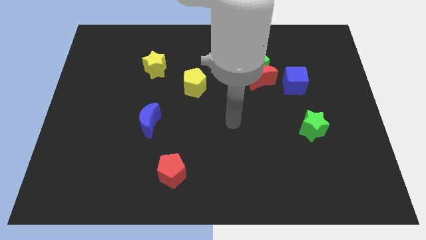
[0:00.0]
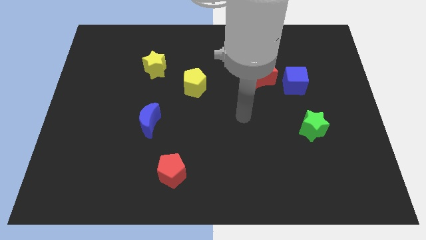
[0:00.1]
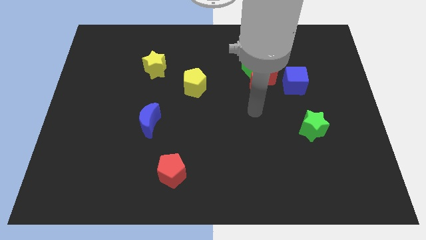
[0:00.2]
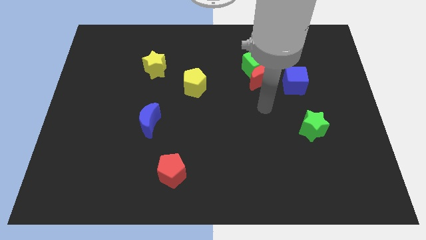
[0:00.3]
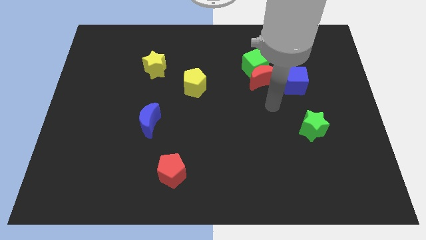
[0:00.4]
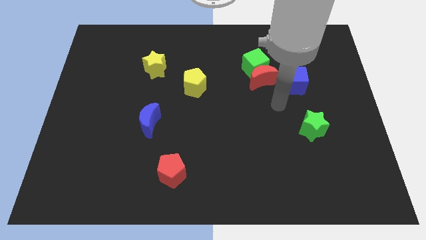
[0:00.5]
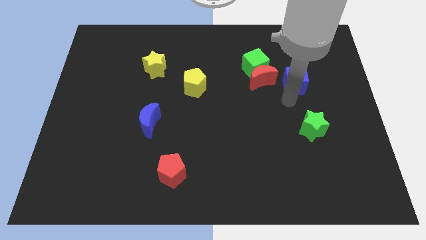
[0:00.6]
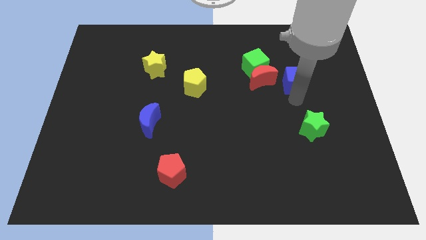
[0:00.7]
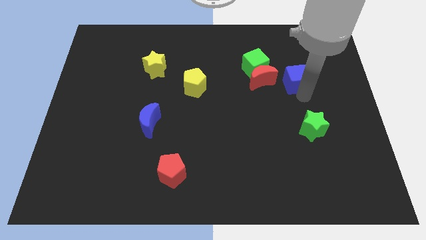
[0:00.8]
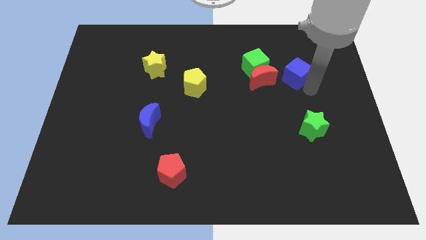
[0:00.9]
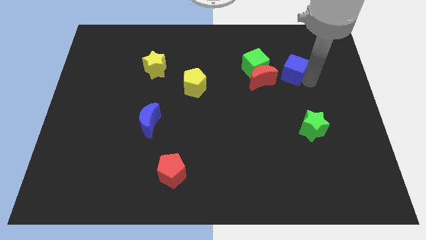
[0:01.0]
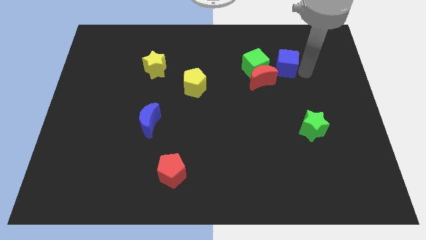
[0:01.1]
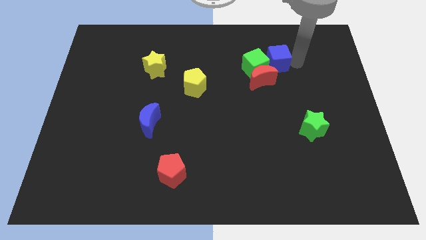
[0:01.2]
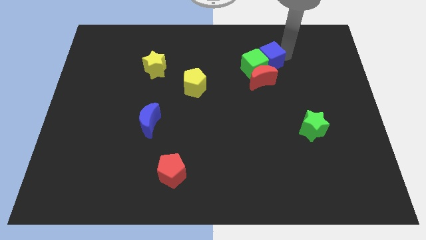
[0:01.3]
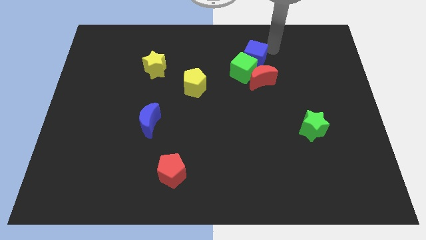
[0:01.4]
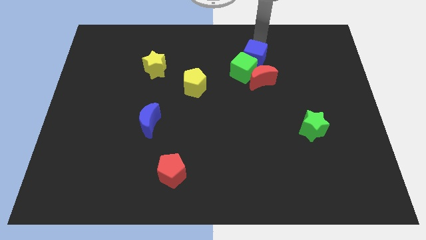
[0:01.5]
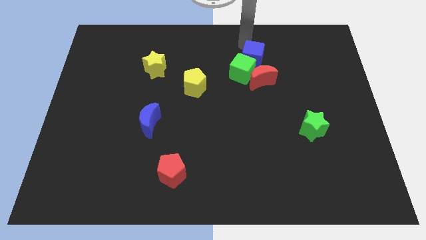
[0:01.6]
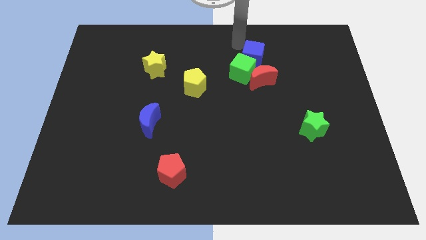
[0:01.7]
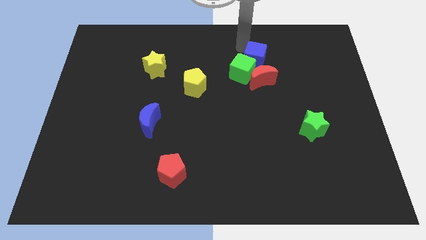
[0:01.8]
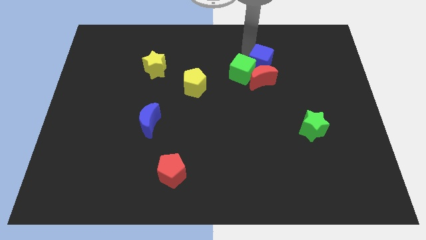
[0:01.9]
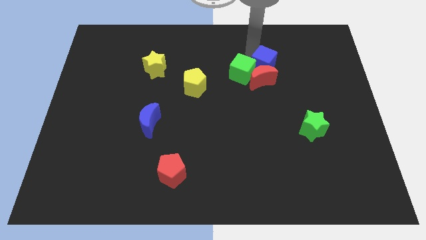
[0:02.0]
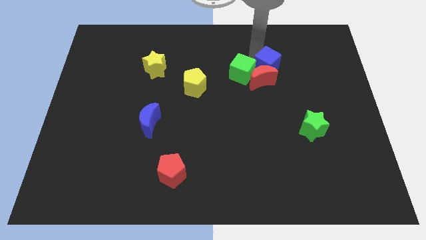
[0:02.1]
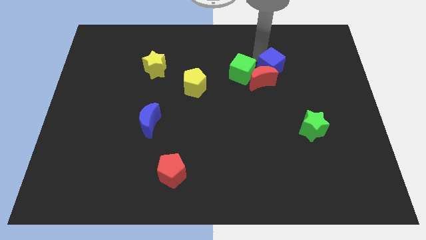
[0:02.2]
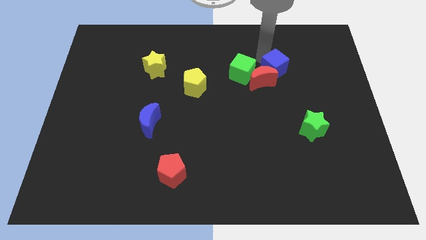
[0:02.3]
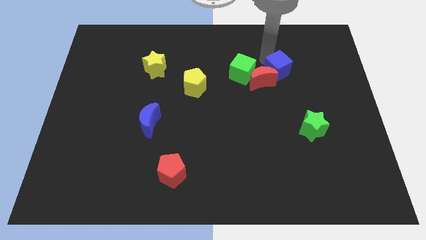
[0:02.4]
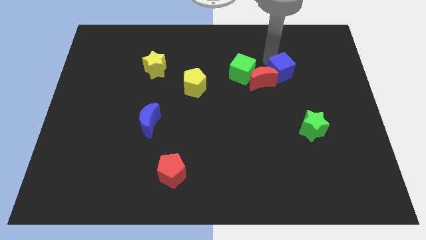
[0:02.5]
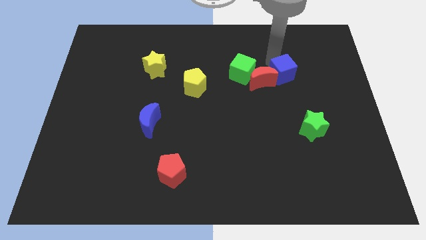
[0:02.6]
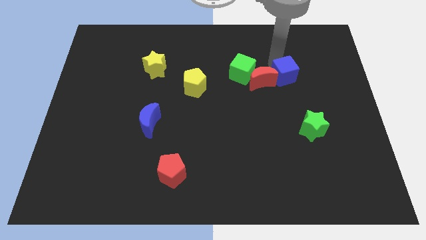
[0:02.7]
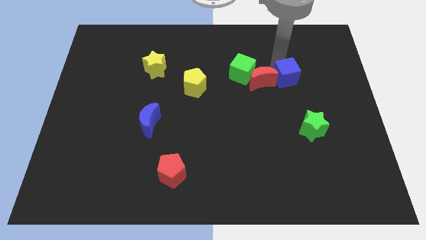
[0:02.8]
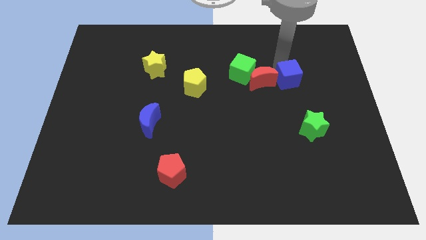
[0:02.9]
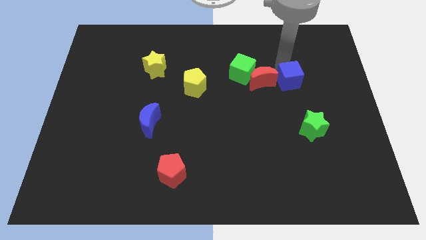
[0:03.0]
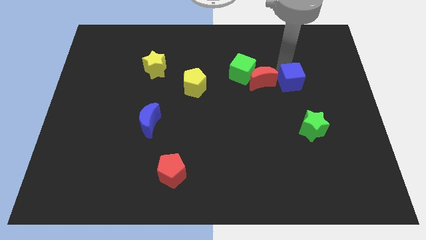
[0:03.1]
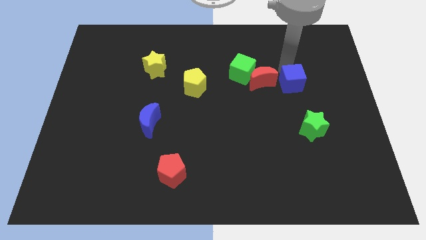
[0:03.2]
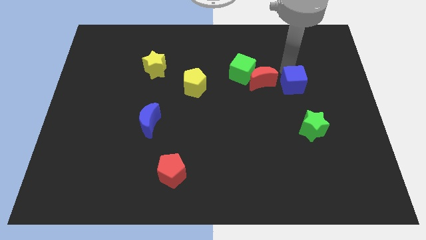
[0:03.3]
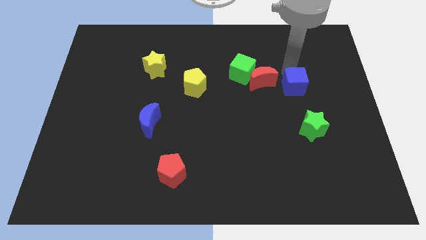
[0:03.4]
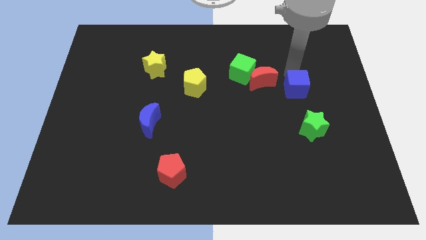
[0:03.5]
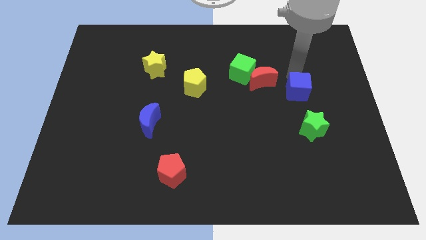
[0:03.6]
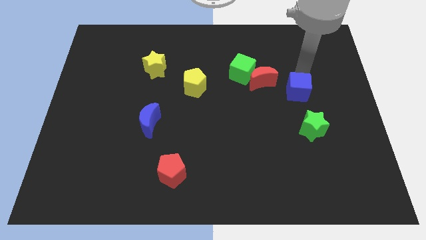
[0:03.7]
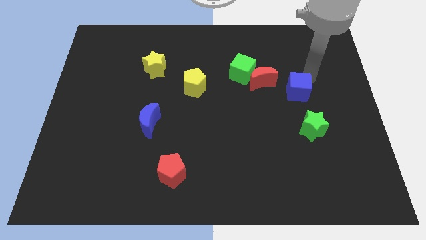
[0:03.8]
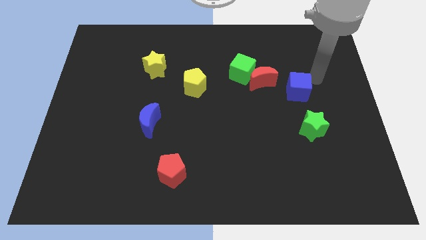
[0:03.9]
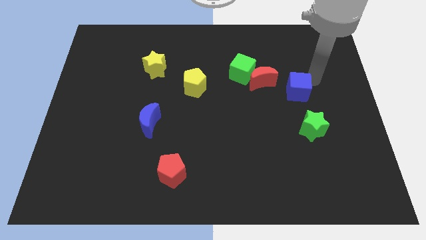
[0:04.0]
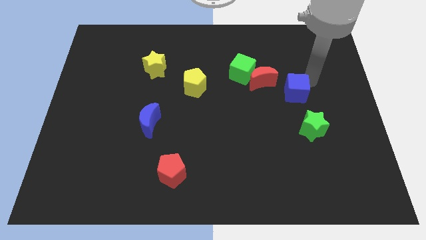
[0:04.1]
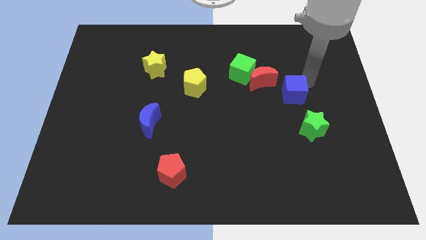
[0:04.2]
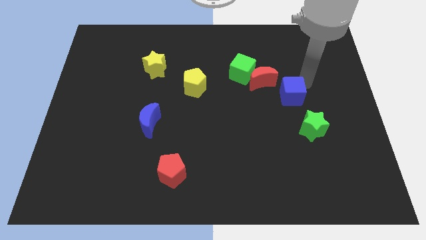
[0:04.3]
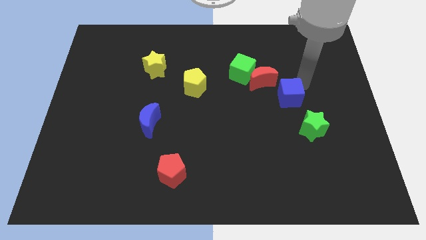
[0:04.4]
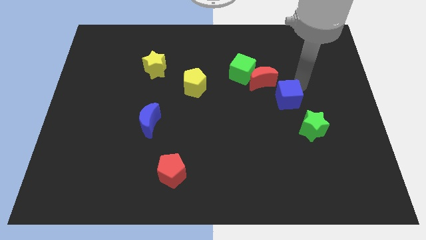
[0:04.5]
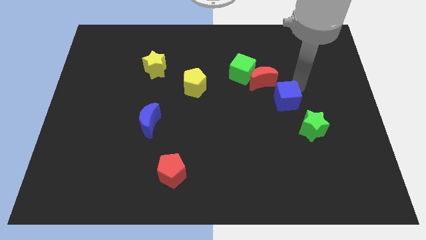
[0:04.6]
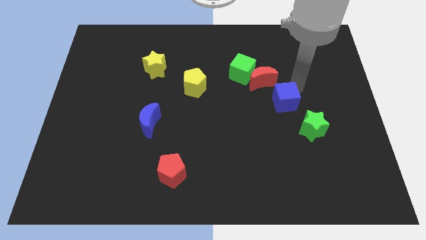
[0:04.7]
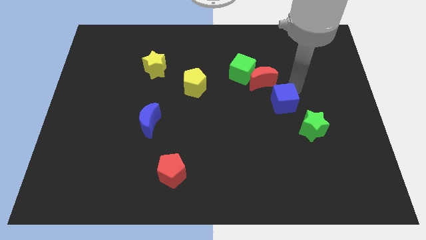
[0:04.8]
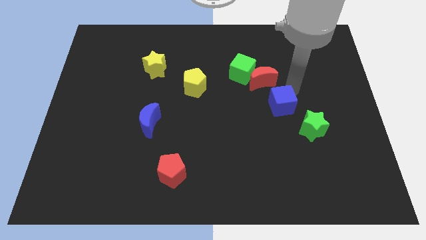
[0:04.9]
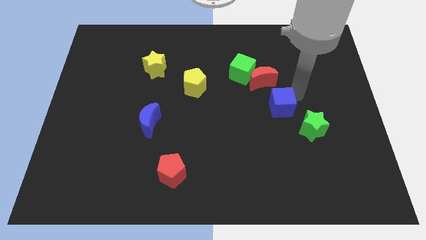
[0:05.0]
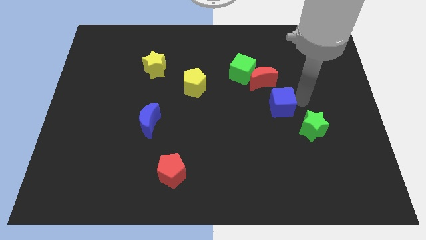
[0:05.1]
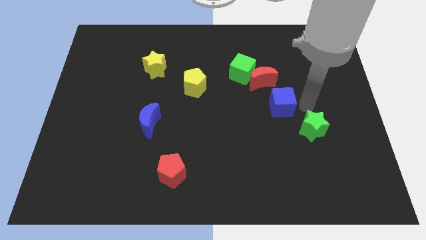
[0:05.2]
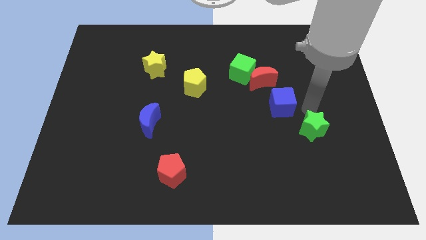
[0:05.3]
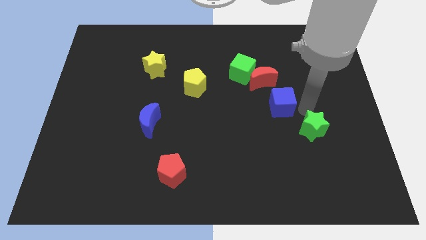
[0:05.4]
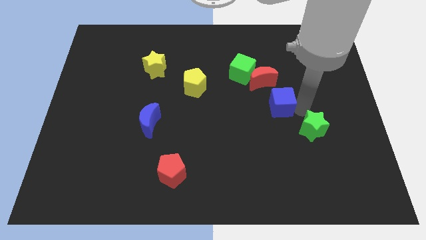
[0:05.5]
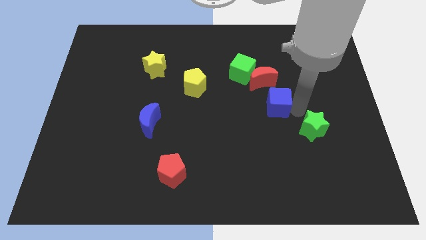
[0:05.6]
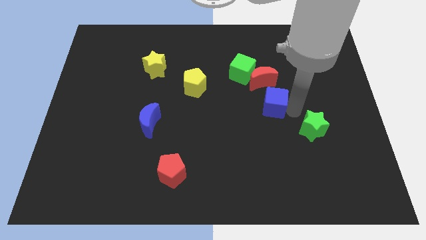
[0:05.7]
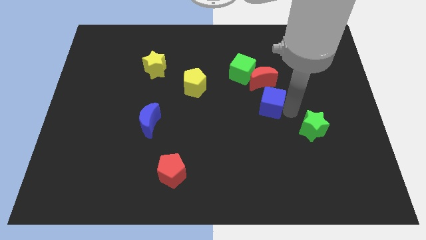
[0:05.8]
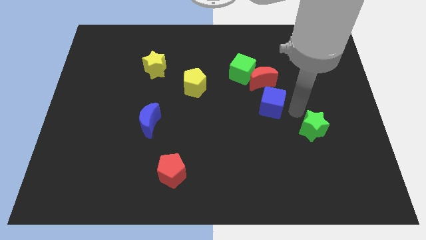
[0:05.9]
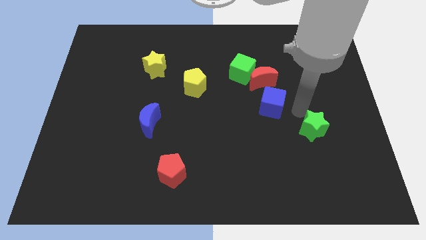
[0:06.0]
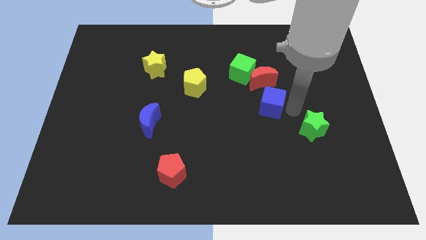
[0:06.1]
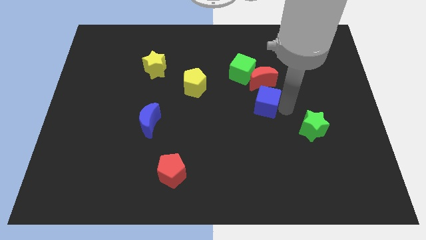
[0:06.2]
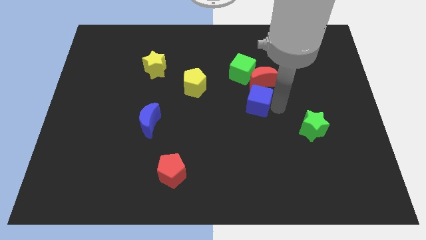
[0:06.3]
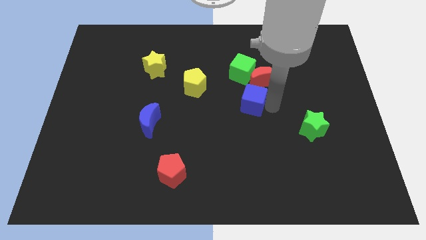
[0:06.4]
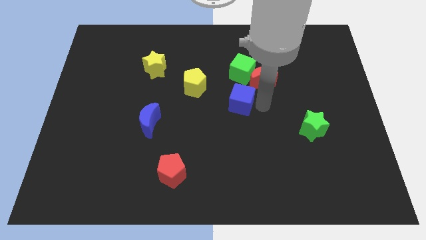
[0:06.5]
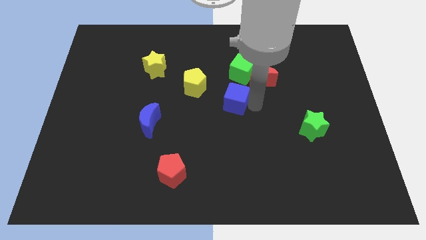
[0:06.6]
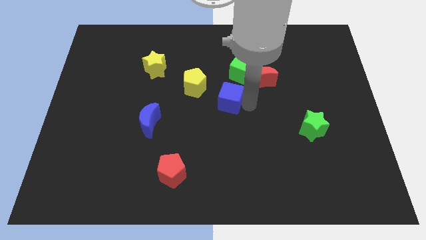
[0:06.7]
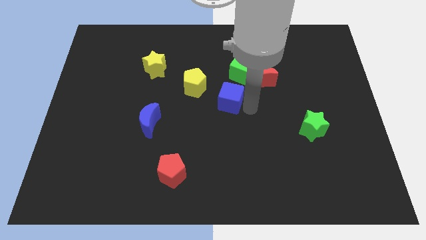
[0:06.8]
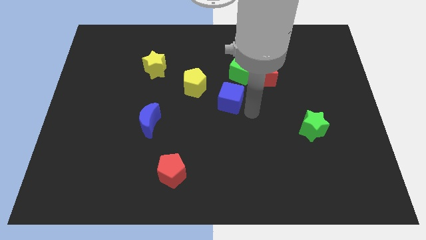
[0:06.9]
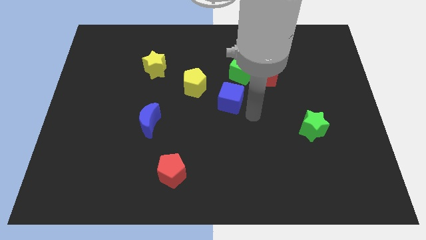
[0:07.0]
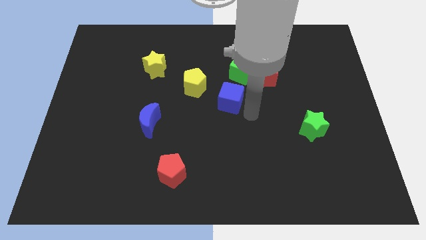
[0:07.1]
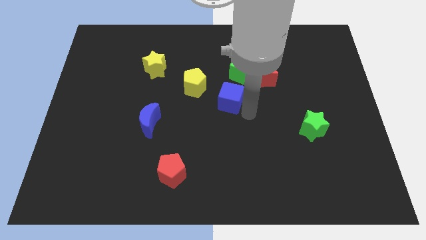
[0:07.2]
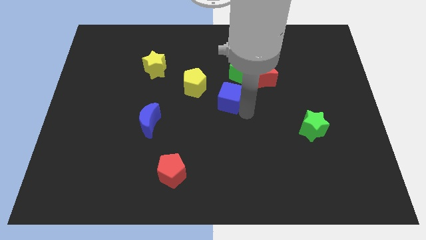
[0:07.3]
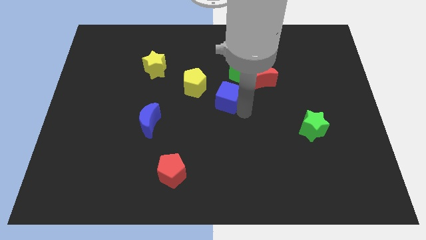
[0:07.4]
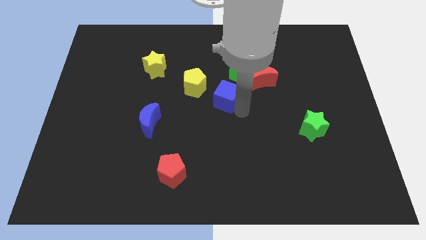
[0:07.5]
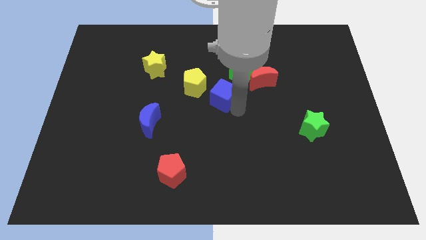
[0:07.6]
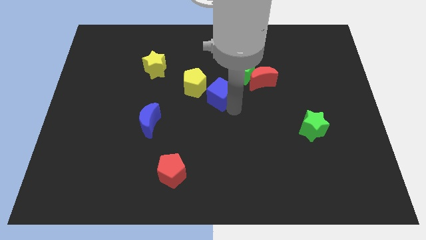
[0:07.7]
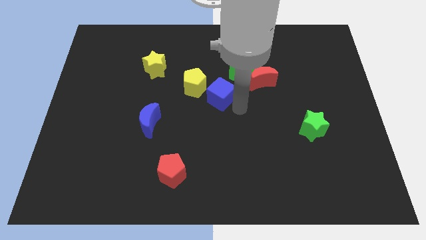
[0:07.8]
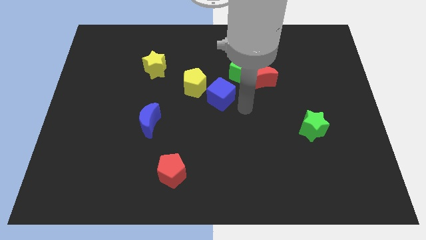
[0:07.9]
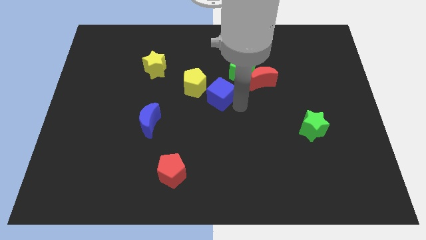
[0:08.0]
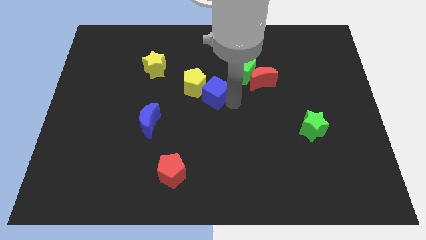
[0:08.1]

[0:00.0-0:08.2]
move the blue cube next to the yellow pentagon
